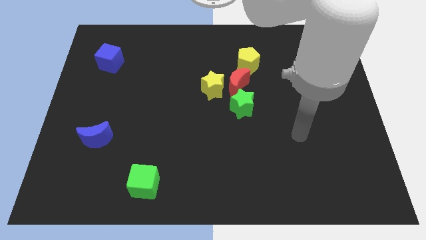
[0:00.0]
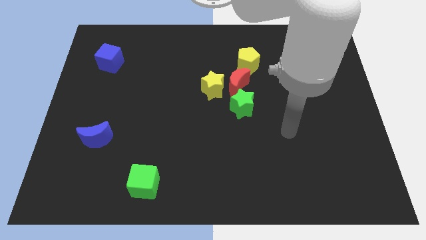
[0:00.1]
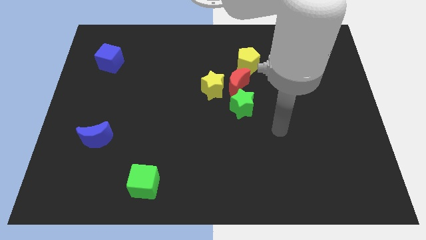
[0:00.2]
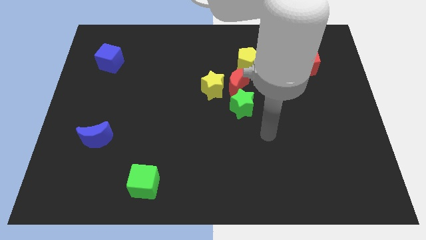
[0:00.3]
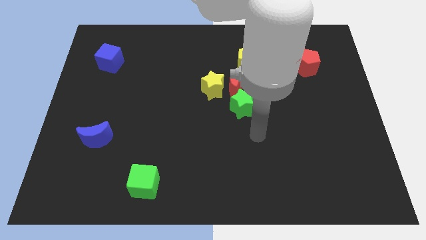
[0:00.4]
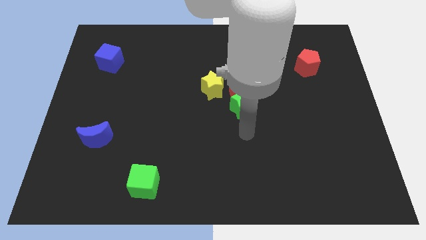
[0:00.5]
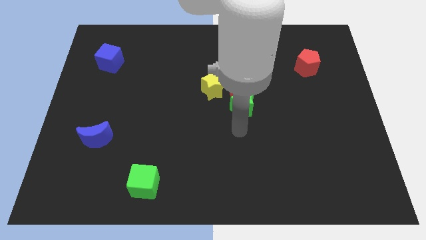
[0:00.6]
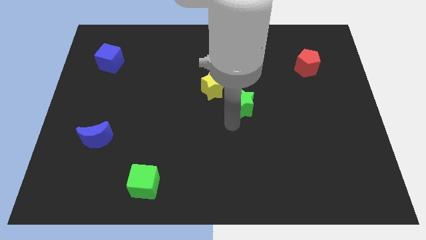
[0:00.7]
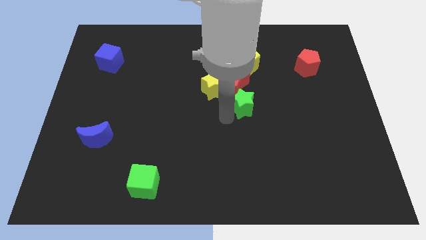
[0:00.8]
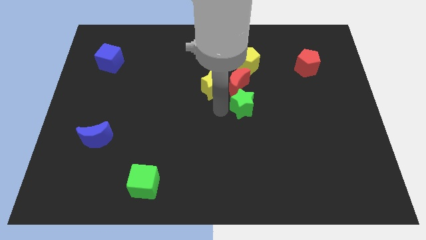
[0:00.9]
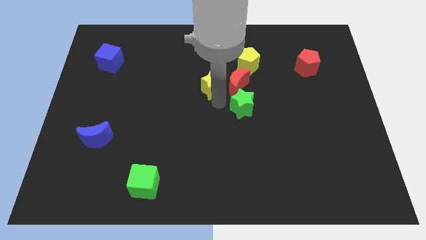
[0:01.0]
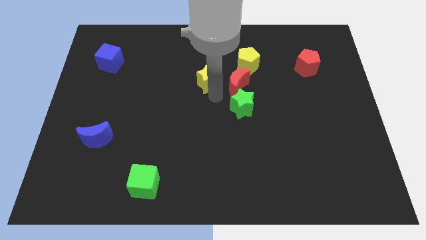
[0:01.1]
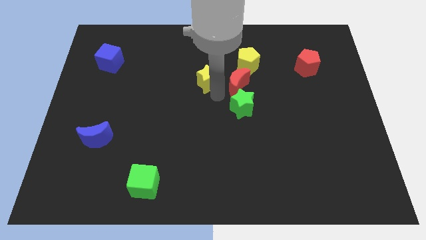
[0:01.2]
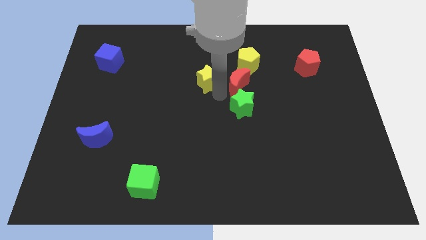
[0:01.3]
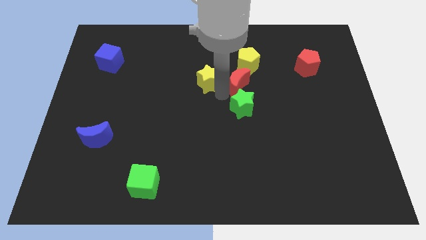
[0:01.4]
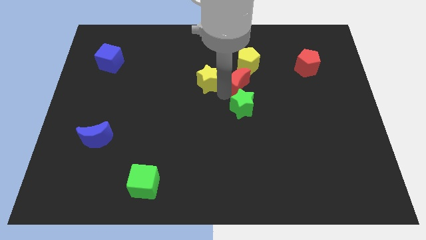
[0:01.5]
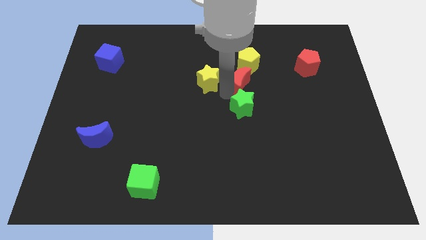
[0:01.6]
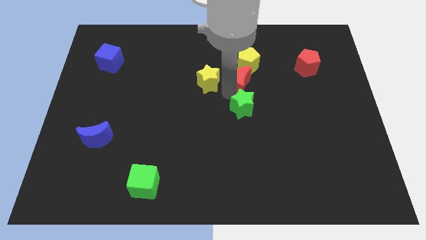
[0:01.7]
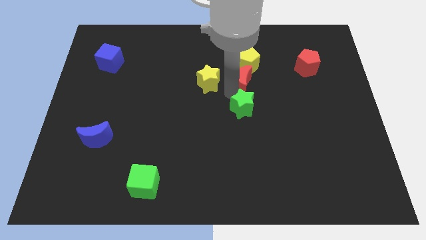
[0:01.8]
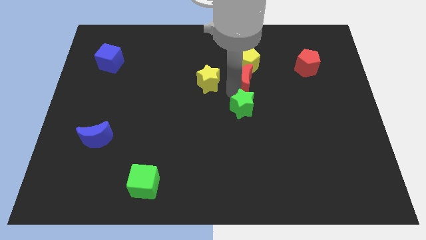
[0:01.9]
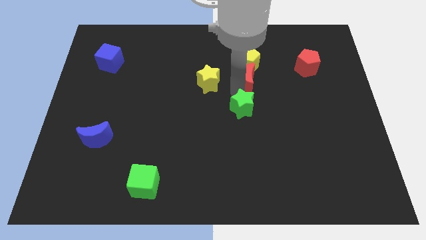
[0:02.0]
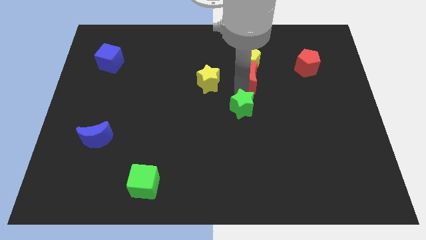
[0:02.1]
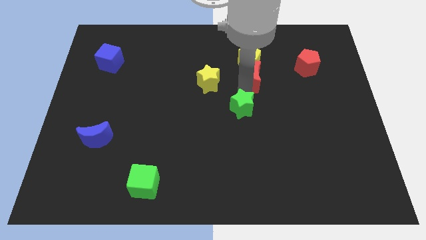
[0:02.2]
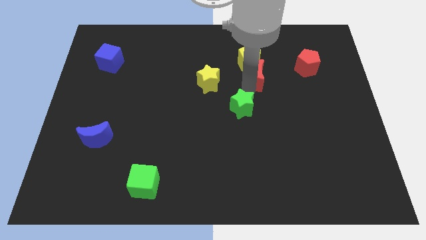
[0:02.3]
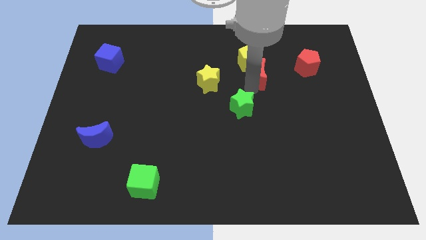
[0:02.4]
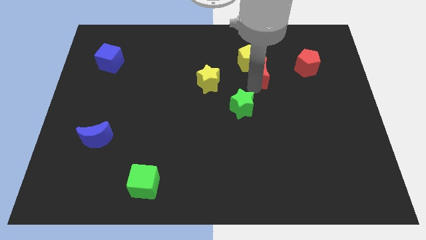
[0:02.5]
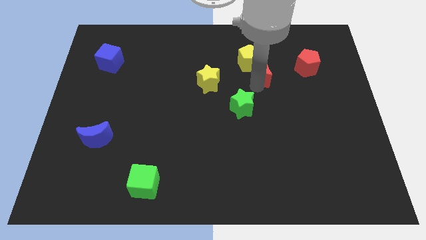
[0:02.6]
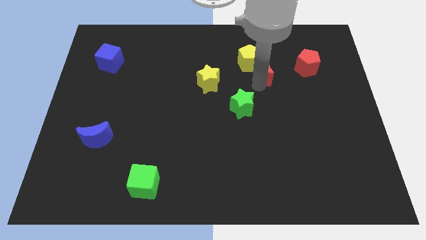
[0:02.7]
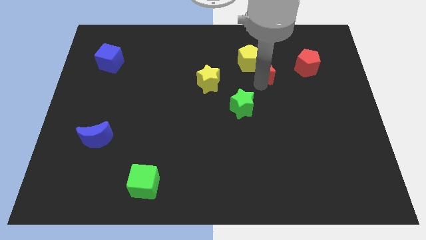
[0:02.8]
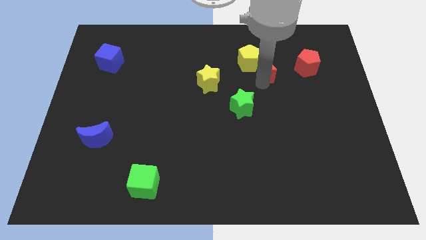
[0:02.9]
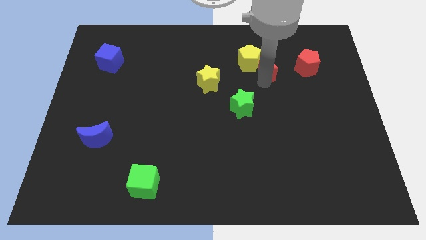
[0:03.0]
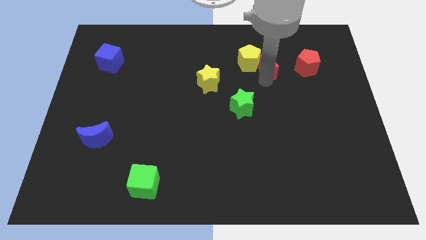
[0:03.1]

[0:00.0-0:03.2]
pull the red moon apart from the clump

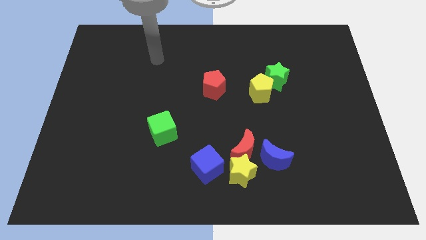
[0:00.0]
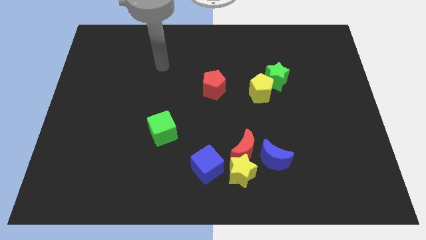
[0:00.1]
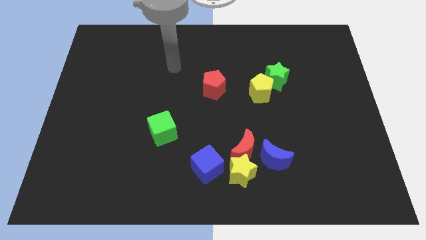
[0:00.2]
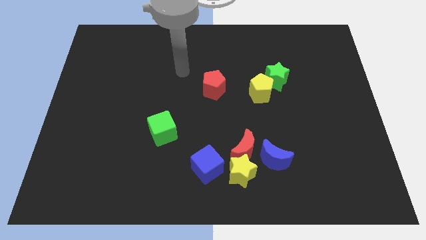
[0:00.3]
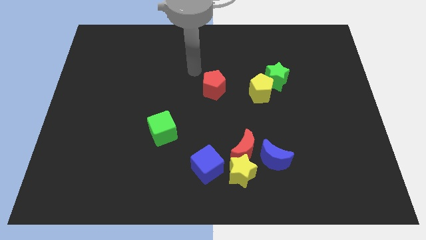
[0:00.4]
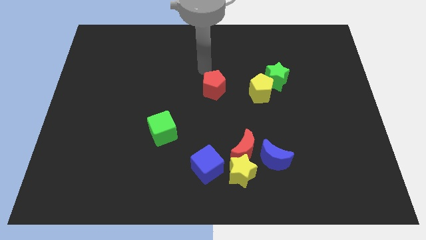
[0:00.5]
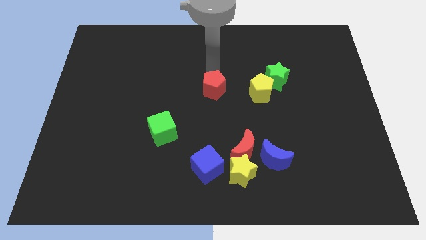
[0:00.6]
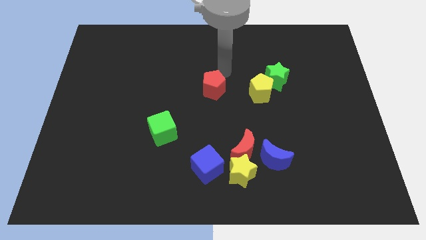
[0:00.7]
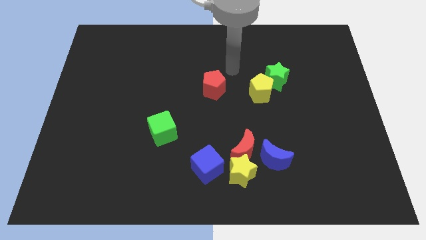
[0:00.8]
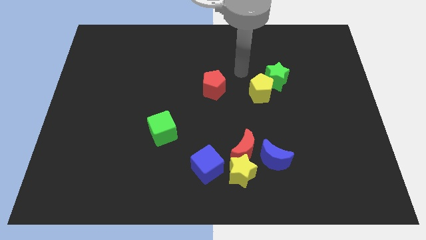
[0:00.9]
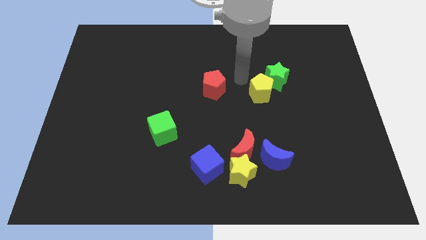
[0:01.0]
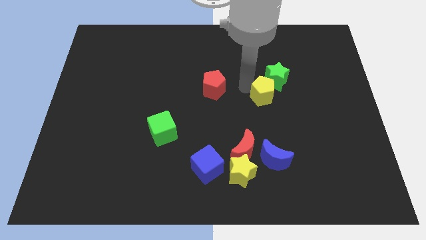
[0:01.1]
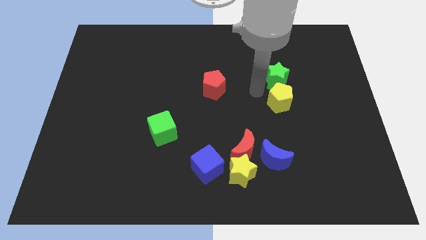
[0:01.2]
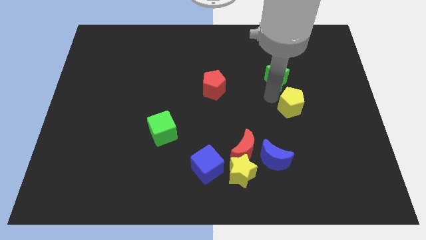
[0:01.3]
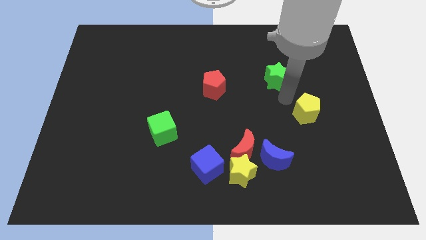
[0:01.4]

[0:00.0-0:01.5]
move the green star away from the yellow pentagon

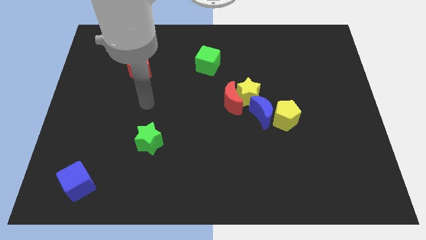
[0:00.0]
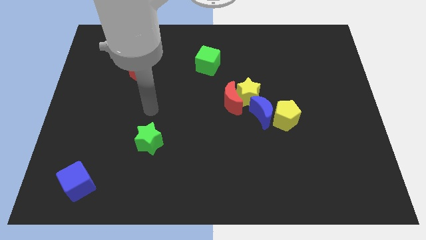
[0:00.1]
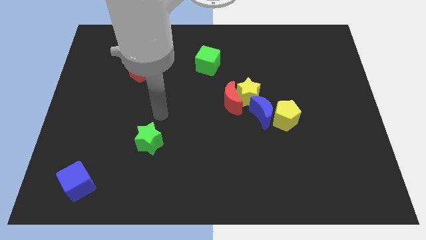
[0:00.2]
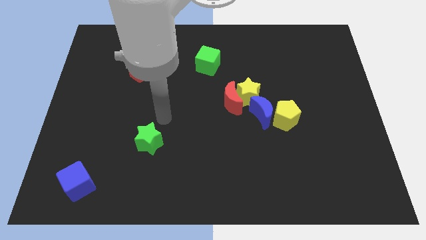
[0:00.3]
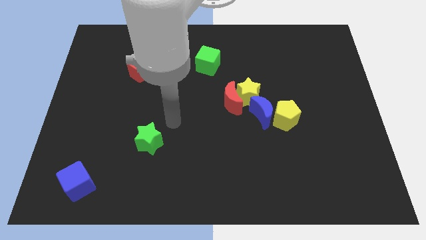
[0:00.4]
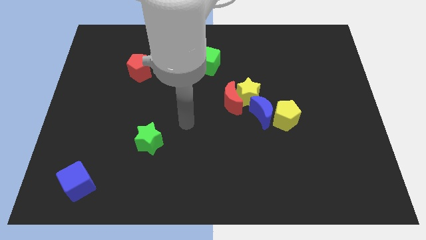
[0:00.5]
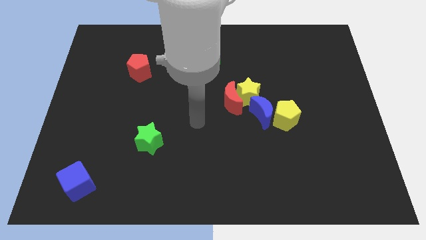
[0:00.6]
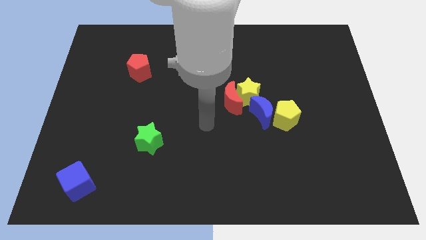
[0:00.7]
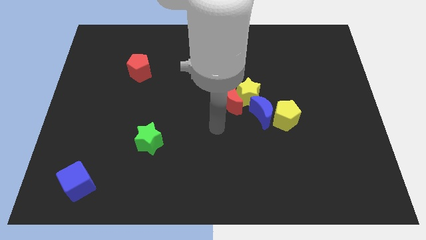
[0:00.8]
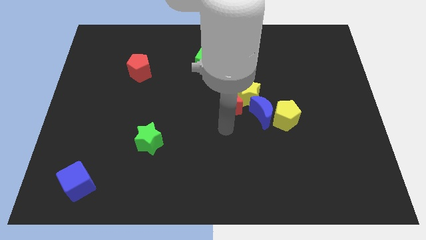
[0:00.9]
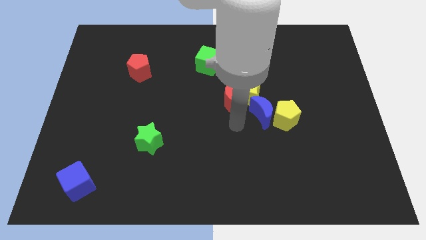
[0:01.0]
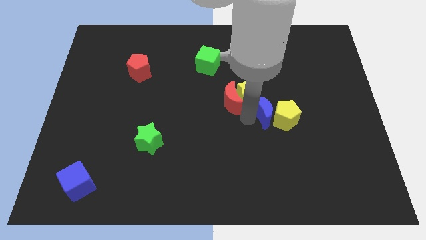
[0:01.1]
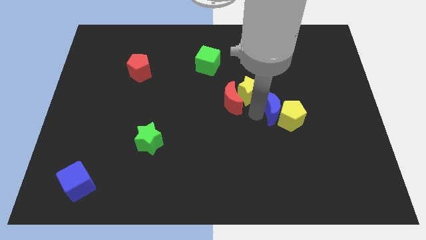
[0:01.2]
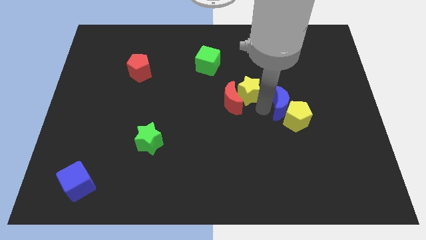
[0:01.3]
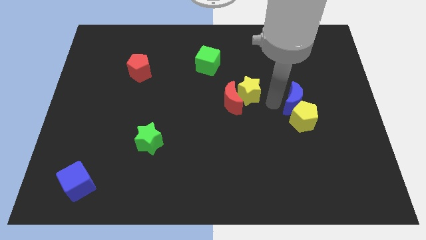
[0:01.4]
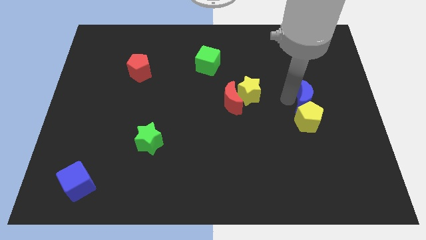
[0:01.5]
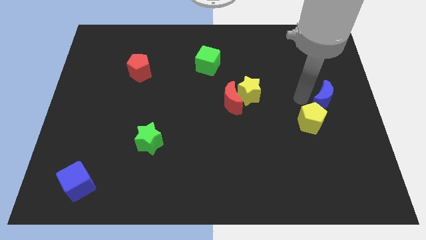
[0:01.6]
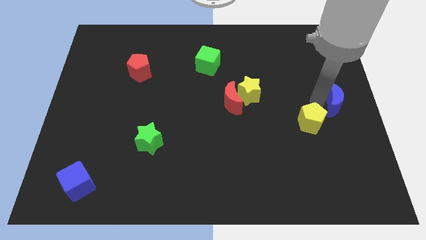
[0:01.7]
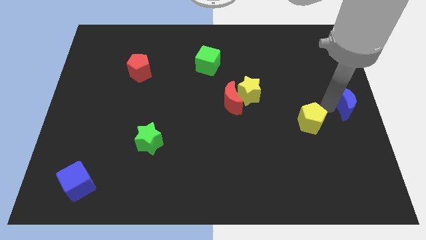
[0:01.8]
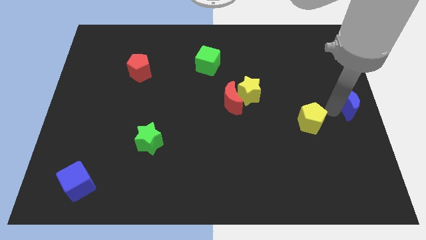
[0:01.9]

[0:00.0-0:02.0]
separate the yellow pentagon from the blue moon

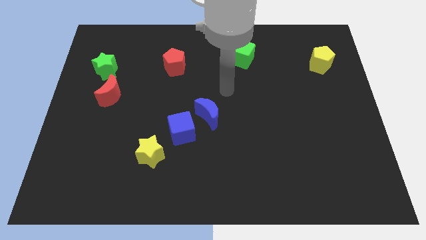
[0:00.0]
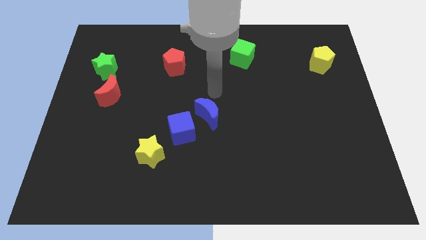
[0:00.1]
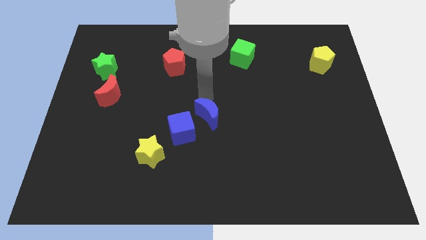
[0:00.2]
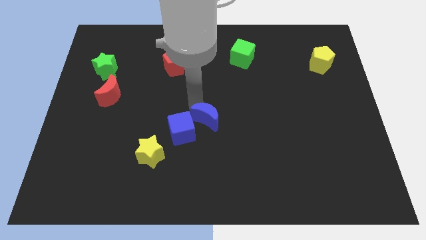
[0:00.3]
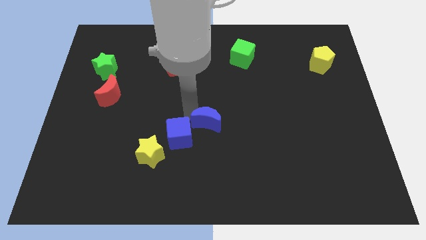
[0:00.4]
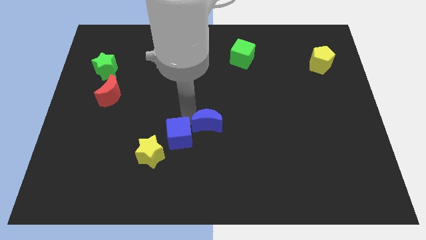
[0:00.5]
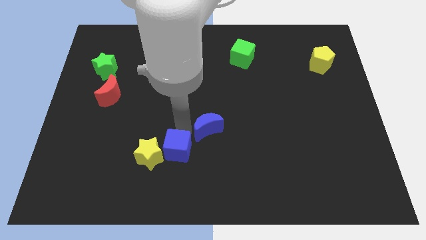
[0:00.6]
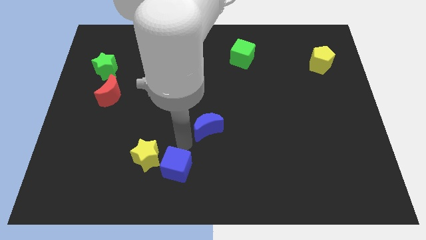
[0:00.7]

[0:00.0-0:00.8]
pull the blue moon apart from the blue cube

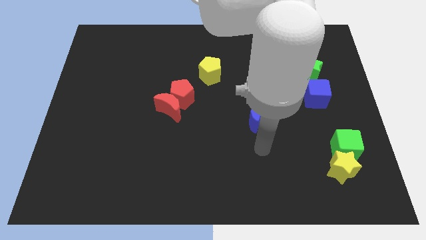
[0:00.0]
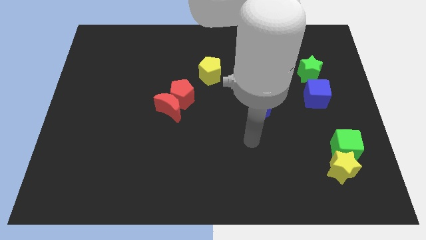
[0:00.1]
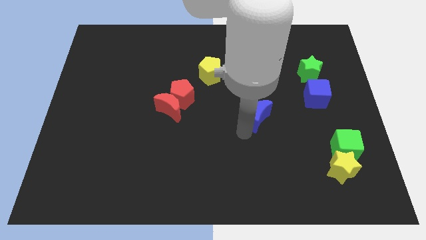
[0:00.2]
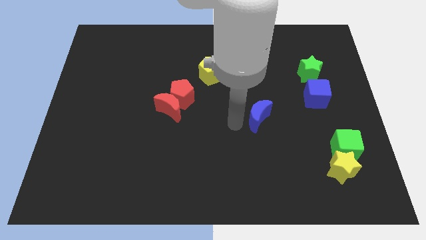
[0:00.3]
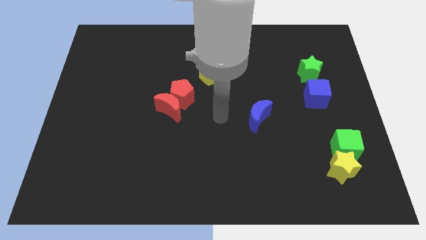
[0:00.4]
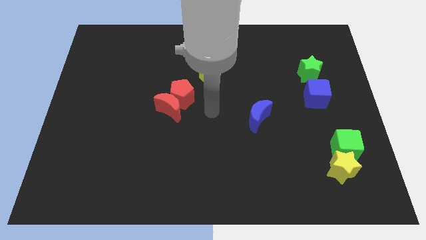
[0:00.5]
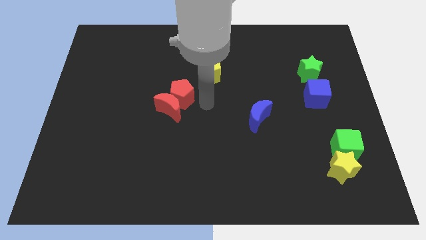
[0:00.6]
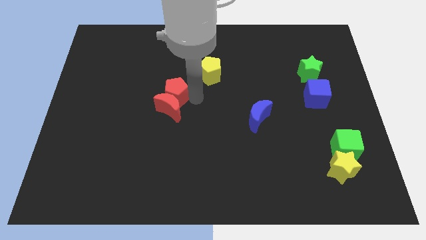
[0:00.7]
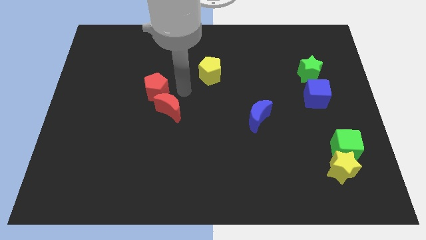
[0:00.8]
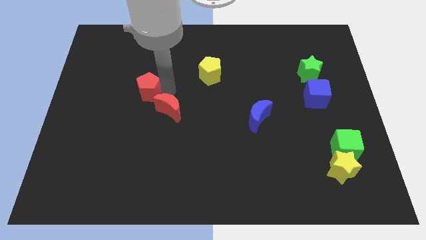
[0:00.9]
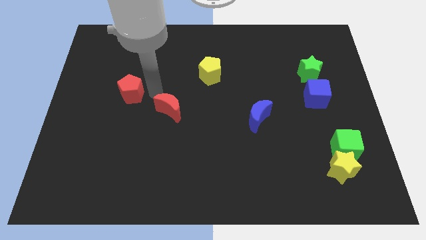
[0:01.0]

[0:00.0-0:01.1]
pull the red moon apart from the red pentagon

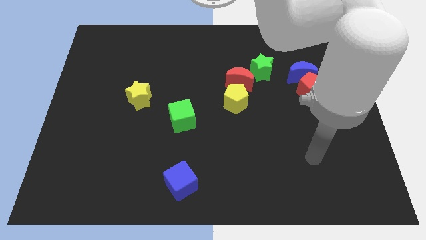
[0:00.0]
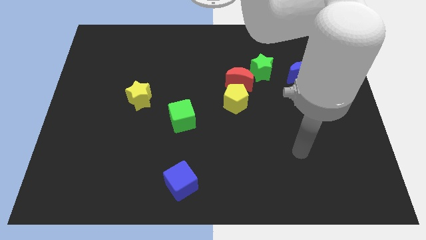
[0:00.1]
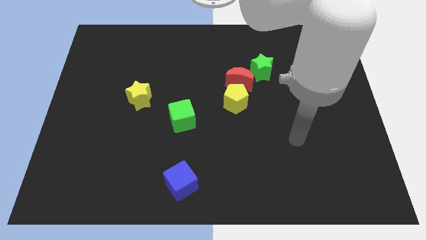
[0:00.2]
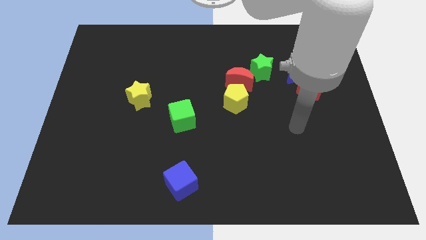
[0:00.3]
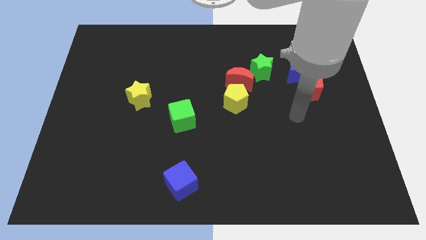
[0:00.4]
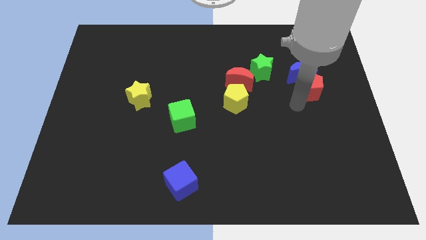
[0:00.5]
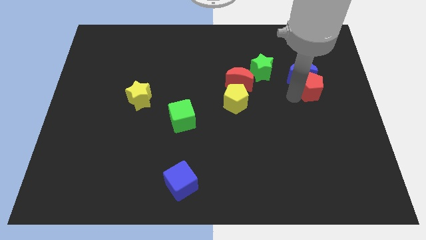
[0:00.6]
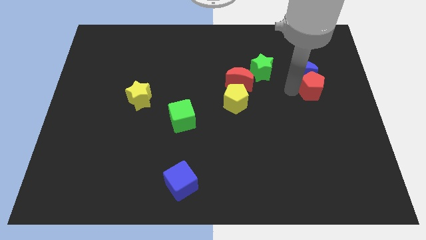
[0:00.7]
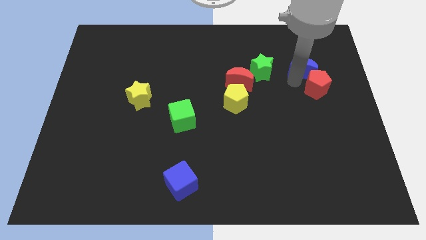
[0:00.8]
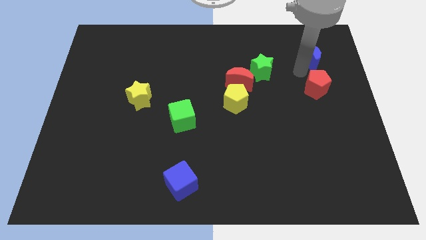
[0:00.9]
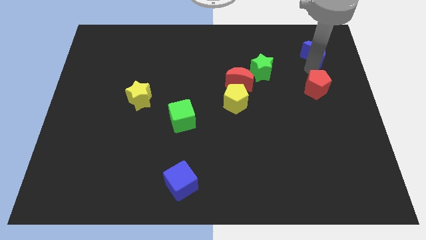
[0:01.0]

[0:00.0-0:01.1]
separate the red pentagon from the blue moon
